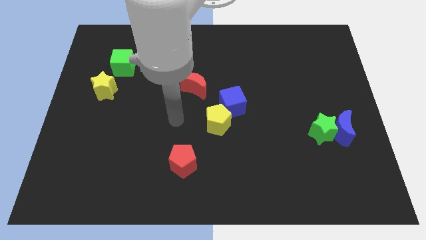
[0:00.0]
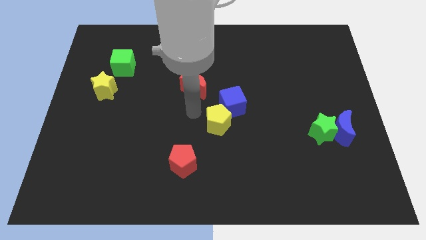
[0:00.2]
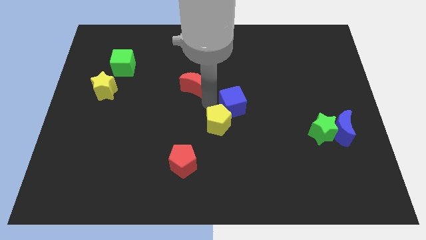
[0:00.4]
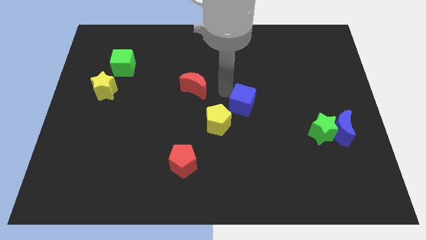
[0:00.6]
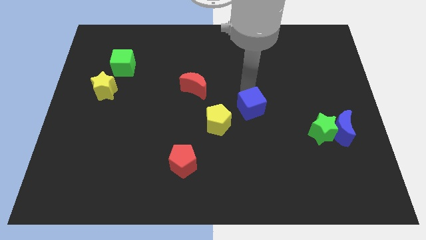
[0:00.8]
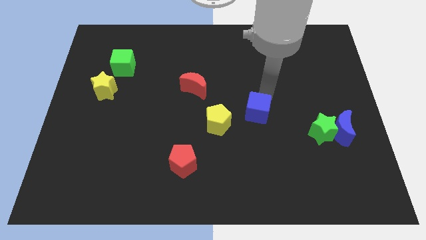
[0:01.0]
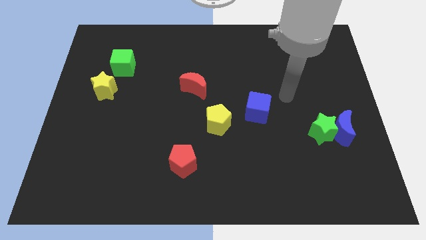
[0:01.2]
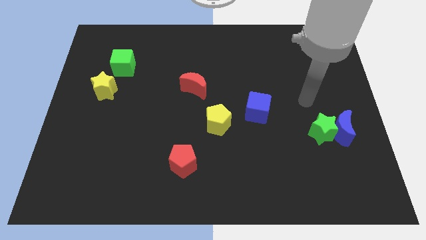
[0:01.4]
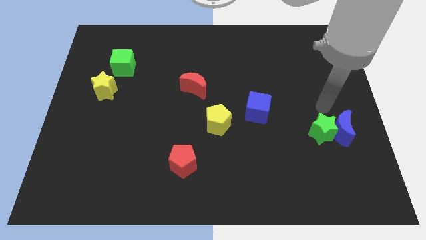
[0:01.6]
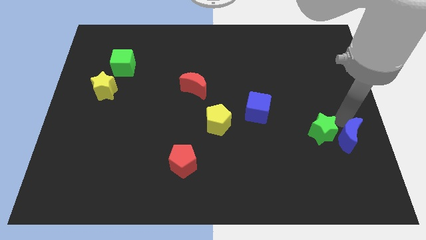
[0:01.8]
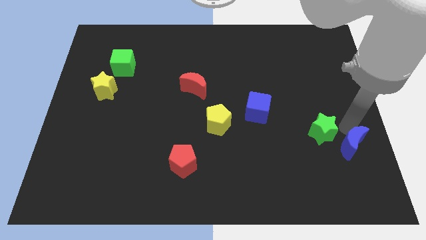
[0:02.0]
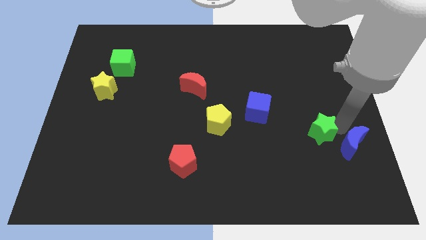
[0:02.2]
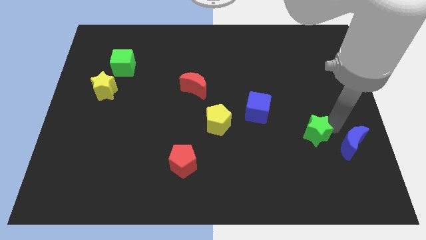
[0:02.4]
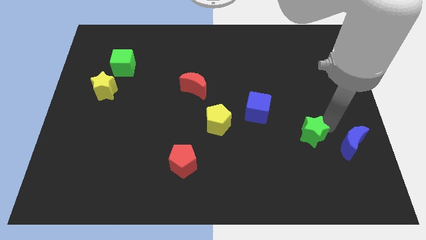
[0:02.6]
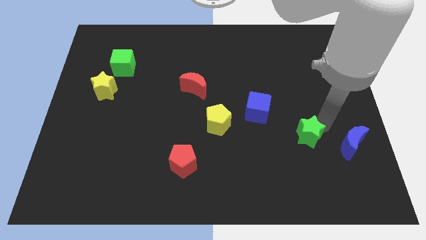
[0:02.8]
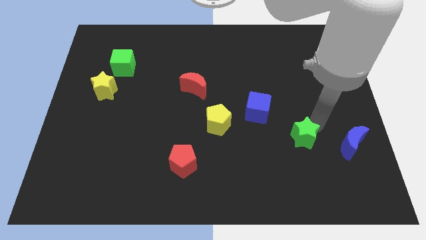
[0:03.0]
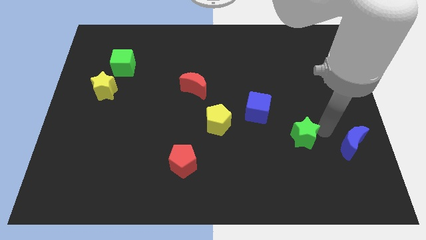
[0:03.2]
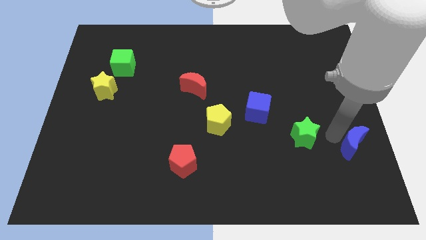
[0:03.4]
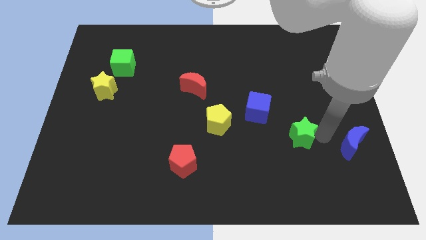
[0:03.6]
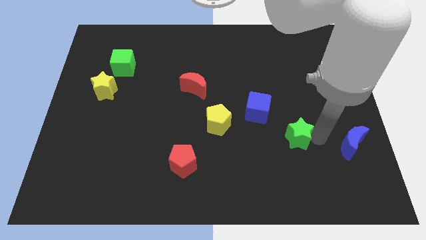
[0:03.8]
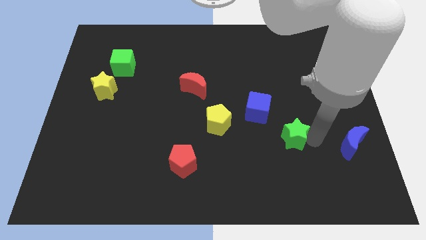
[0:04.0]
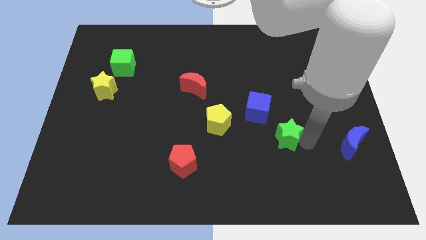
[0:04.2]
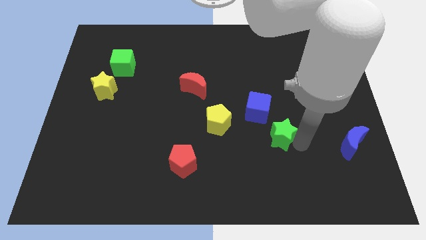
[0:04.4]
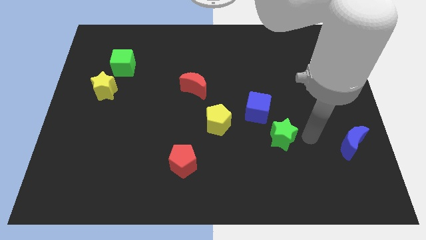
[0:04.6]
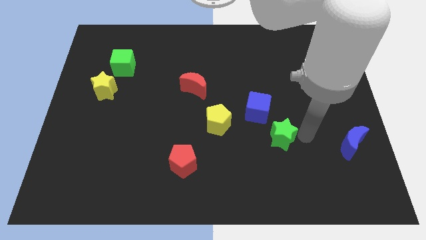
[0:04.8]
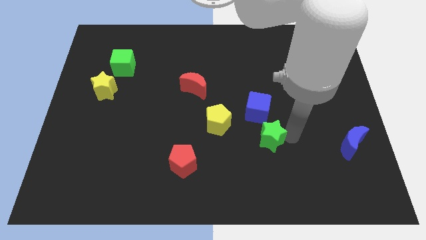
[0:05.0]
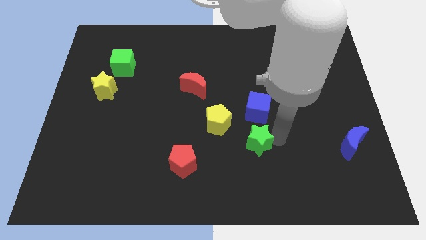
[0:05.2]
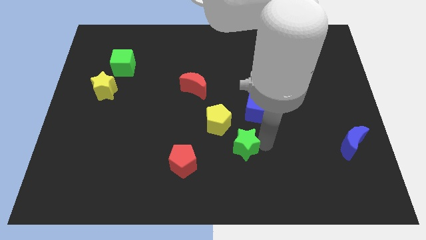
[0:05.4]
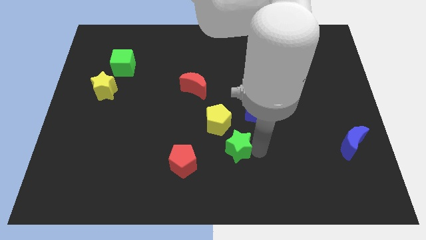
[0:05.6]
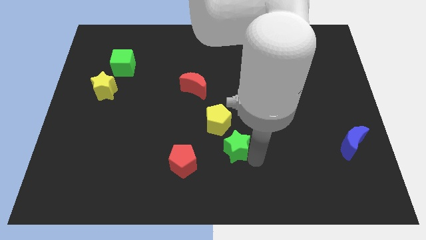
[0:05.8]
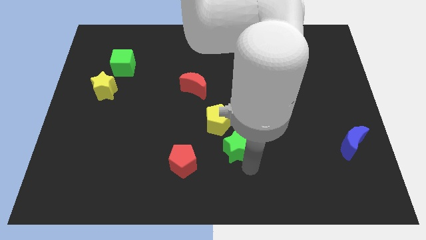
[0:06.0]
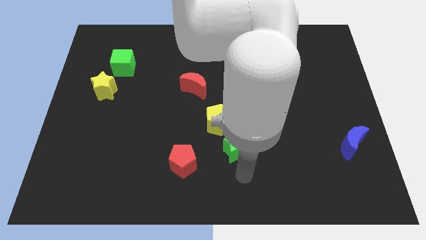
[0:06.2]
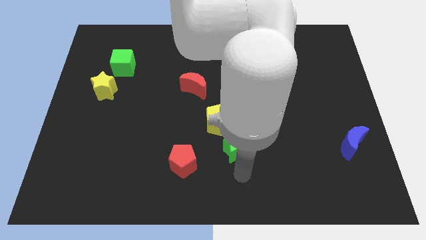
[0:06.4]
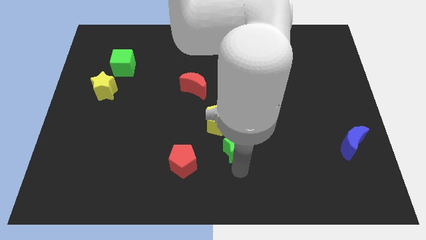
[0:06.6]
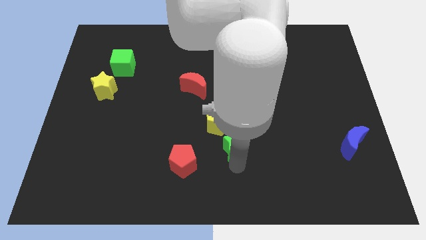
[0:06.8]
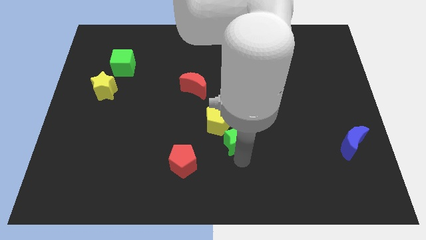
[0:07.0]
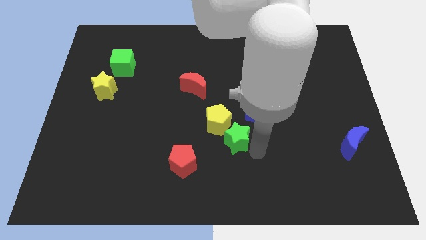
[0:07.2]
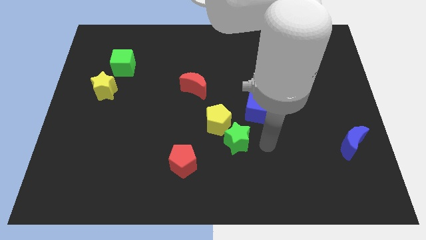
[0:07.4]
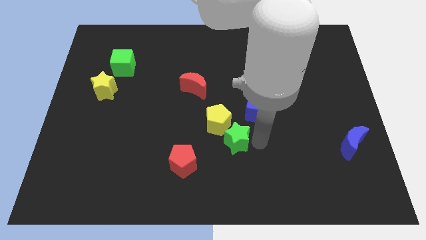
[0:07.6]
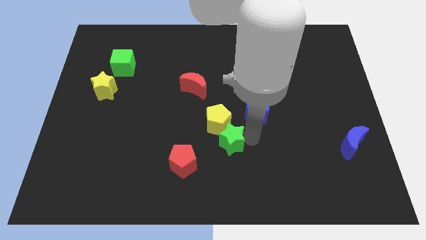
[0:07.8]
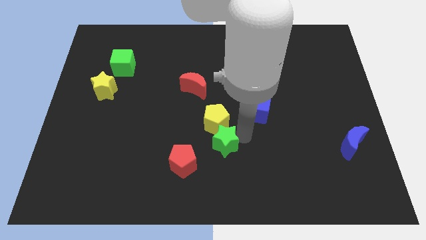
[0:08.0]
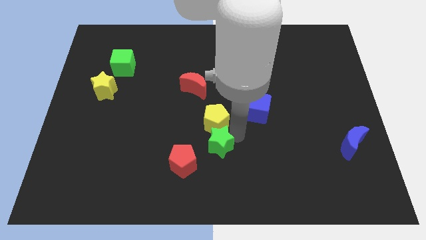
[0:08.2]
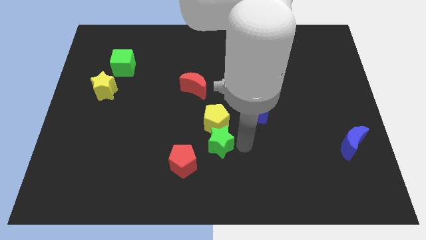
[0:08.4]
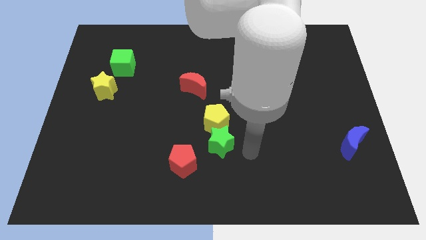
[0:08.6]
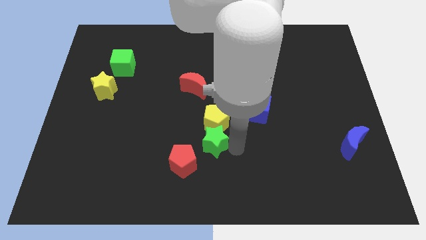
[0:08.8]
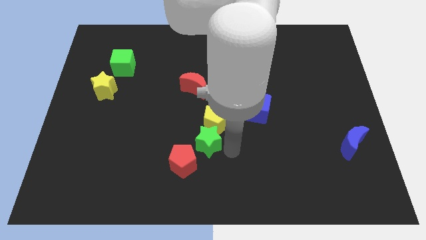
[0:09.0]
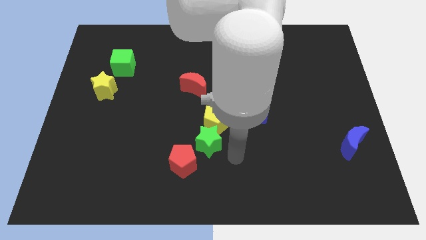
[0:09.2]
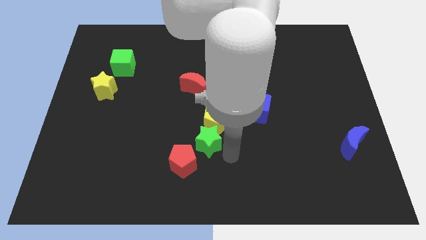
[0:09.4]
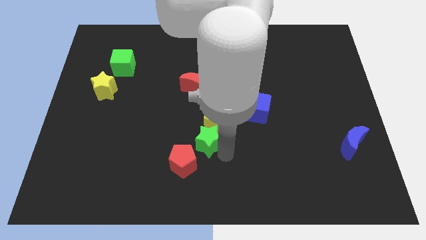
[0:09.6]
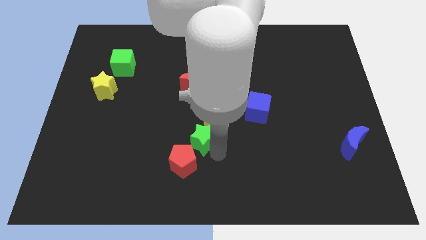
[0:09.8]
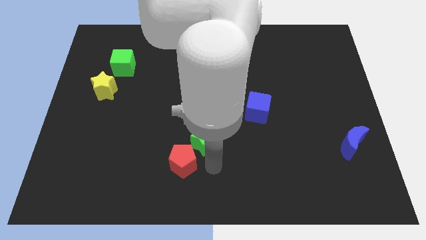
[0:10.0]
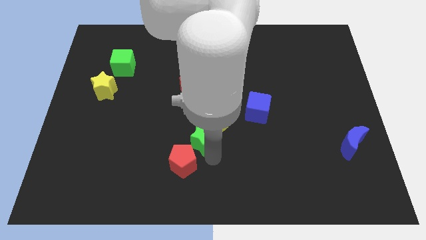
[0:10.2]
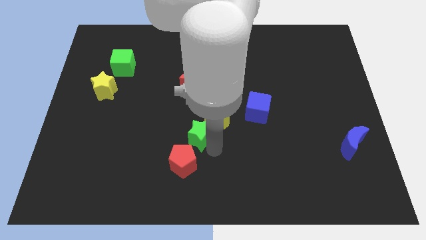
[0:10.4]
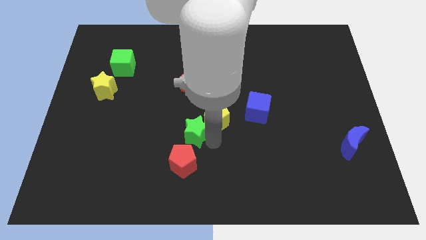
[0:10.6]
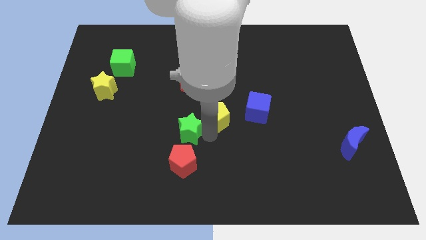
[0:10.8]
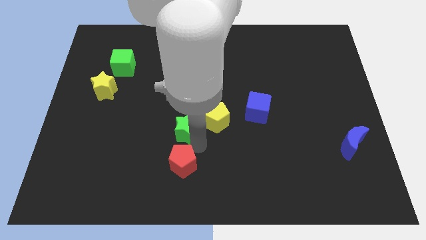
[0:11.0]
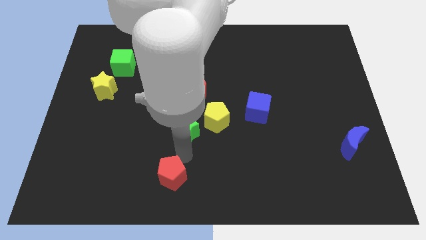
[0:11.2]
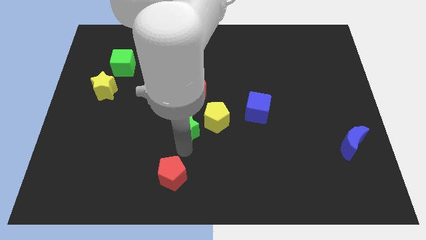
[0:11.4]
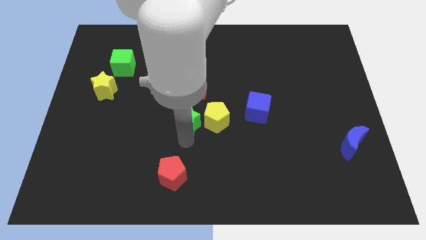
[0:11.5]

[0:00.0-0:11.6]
slide the green star to the top left of the yellow pentagon

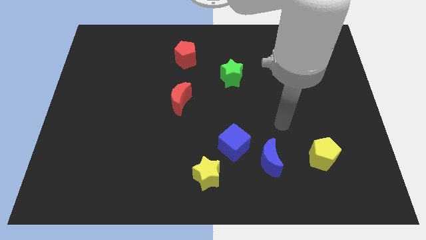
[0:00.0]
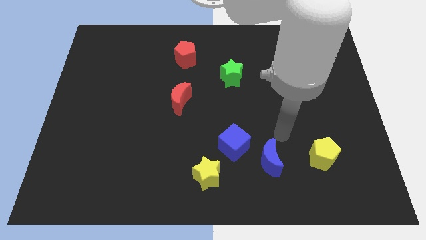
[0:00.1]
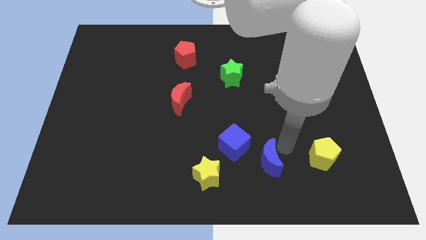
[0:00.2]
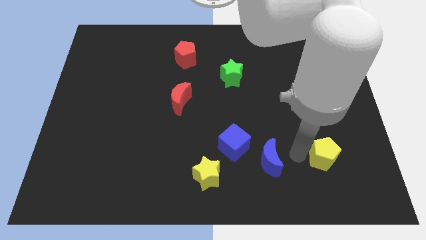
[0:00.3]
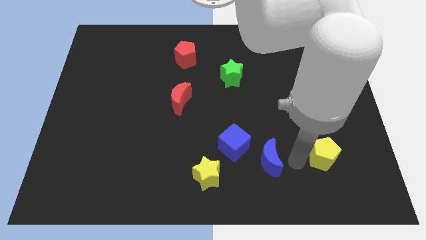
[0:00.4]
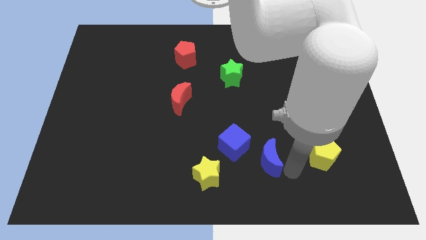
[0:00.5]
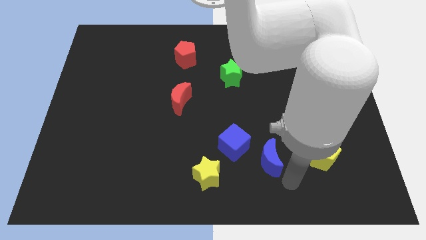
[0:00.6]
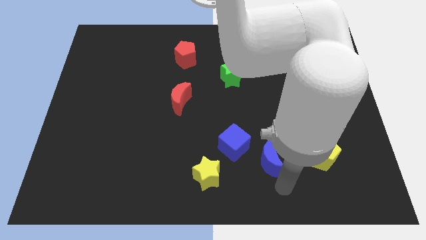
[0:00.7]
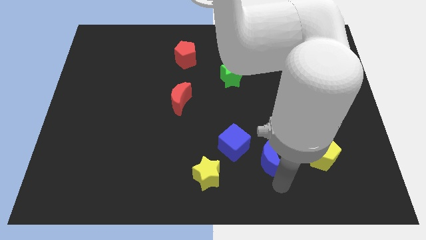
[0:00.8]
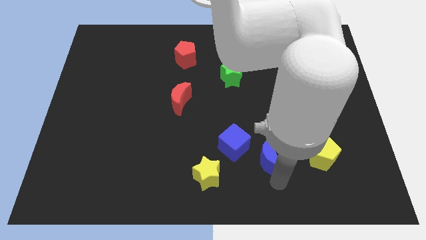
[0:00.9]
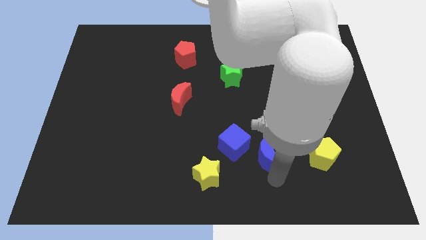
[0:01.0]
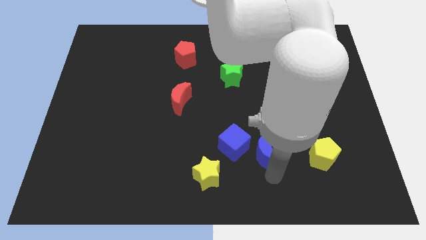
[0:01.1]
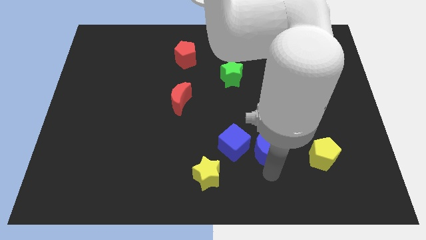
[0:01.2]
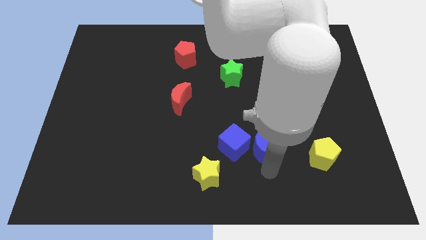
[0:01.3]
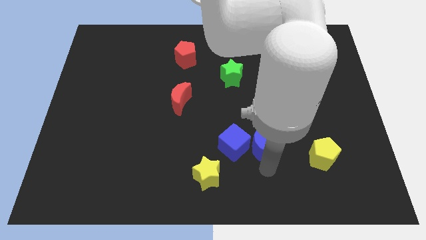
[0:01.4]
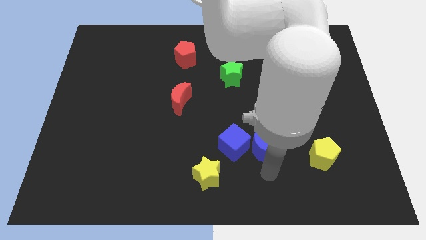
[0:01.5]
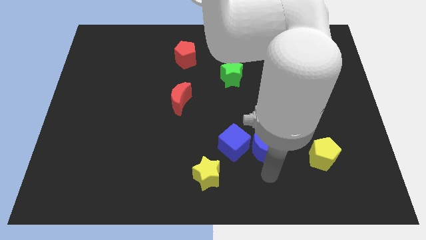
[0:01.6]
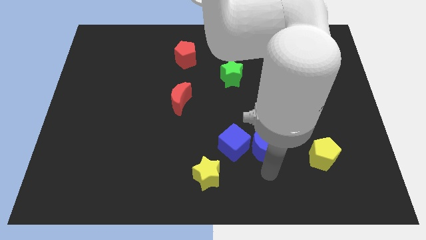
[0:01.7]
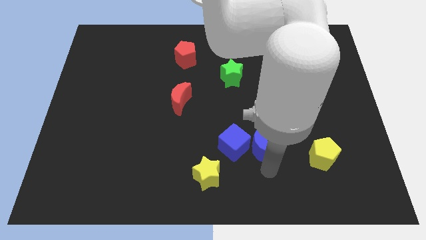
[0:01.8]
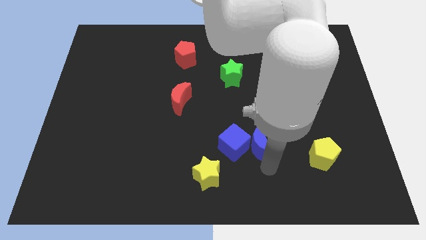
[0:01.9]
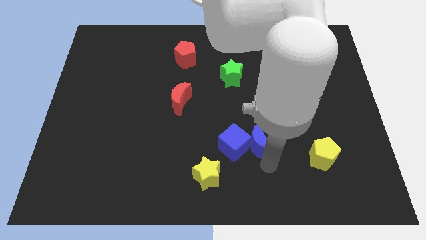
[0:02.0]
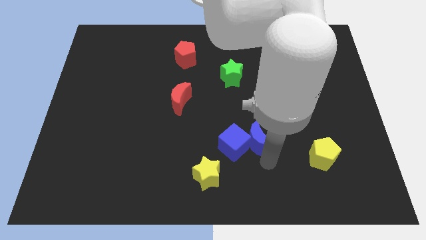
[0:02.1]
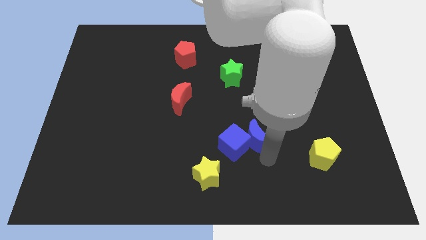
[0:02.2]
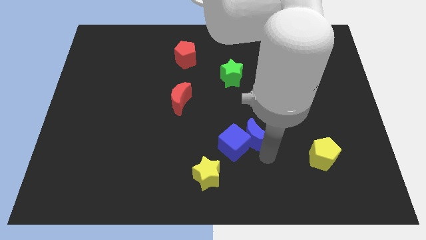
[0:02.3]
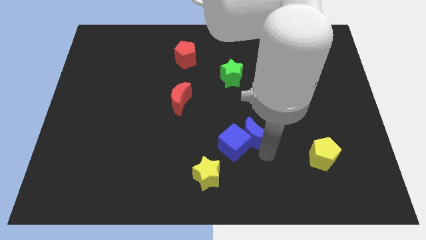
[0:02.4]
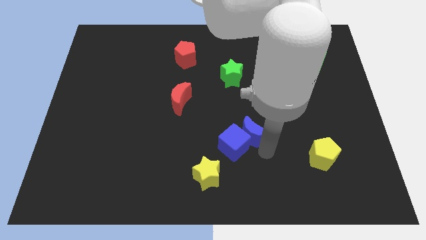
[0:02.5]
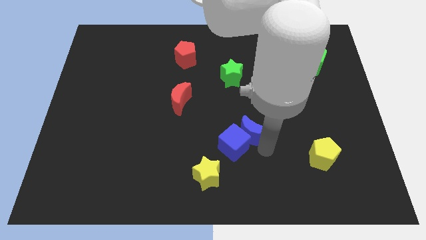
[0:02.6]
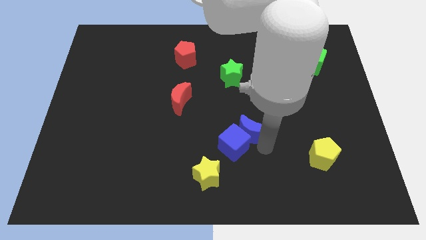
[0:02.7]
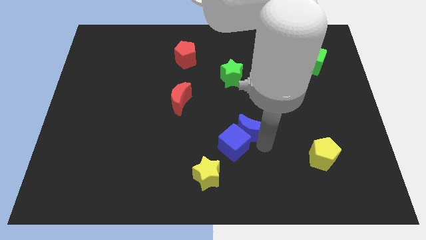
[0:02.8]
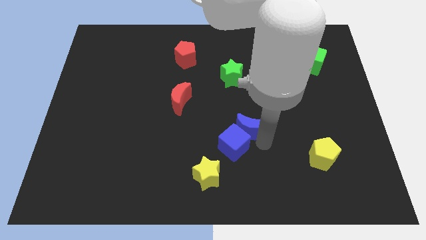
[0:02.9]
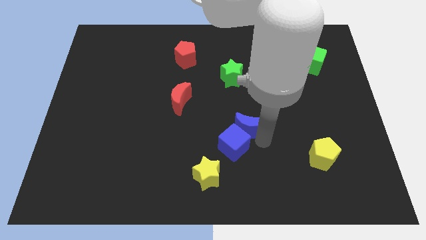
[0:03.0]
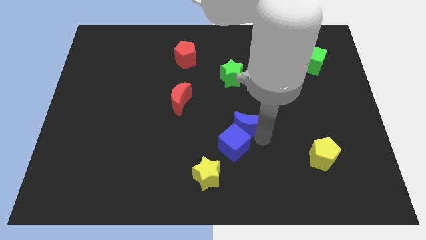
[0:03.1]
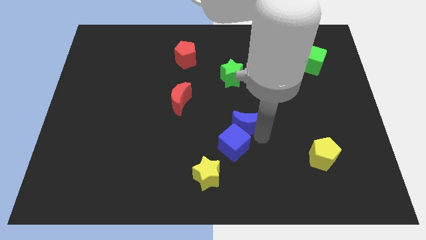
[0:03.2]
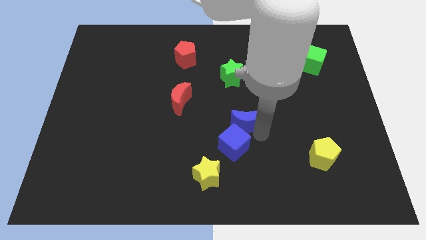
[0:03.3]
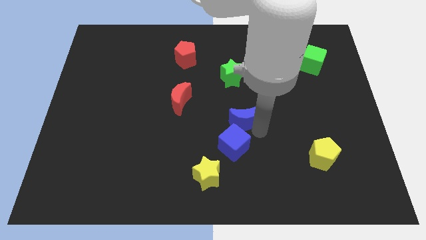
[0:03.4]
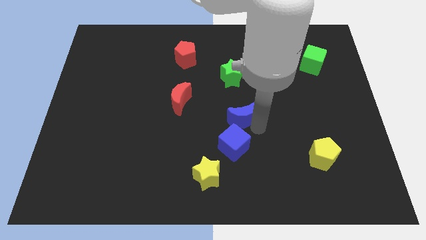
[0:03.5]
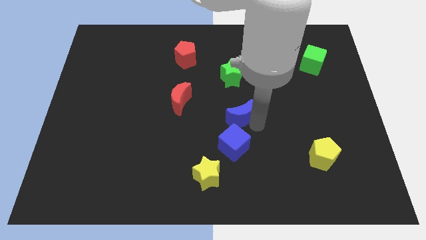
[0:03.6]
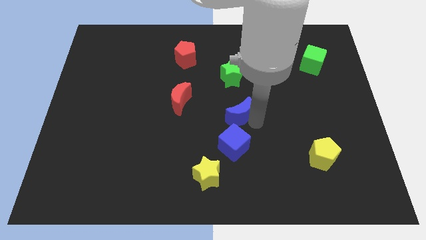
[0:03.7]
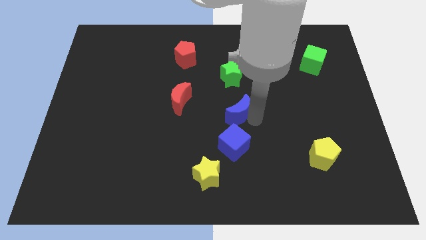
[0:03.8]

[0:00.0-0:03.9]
put the blue moon just right of the red moon
